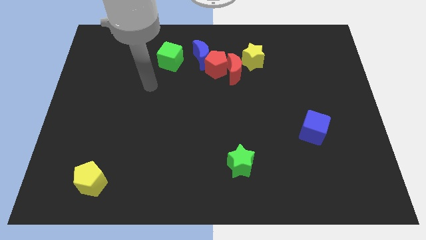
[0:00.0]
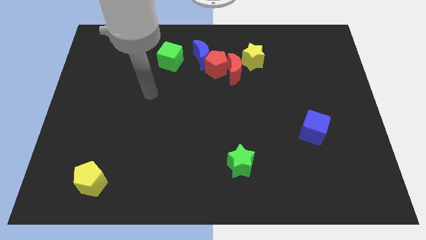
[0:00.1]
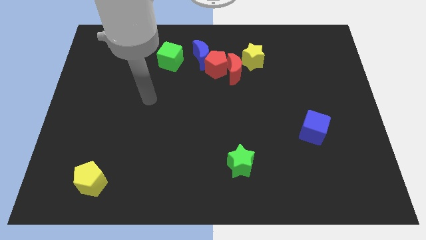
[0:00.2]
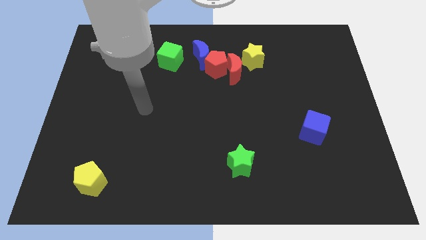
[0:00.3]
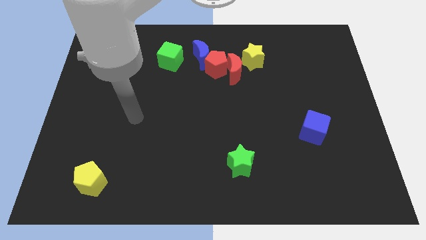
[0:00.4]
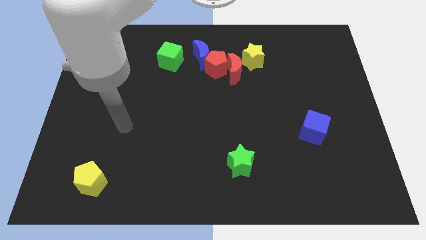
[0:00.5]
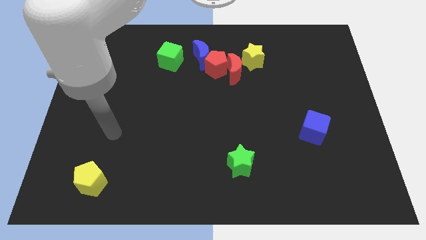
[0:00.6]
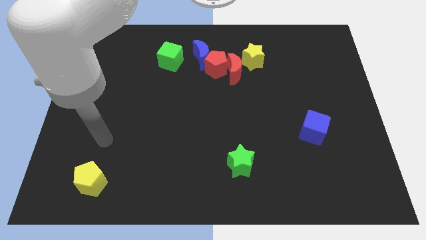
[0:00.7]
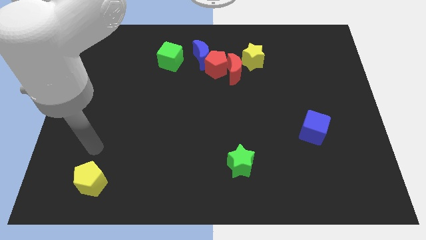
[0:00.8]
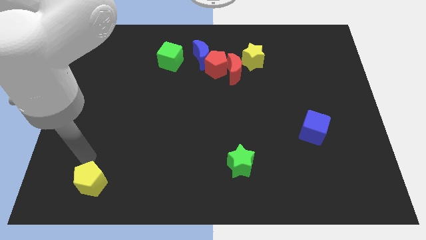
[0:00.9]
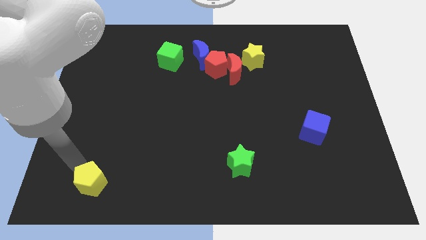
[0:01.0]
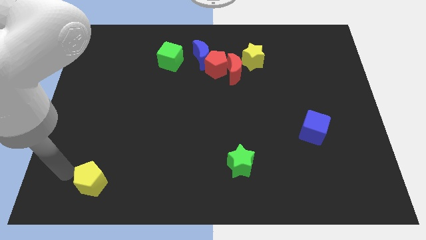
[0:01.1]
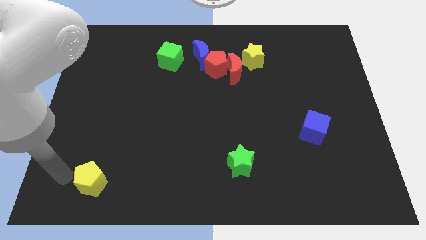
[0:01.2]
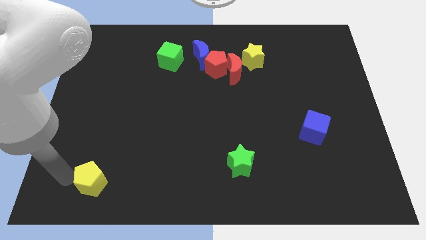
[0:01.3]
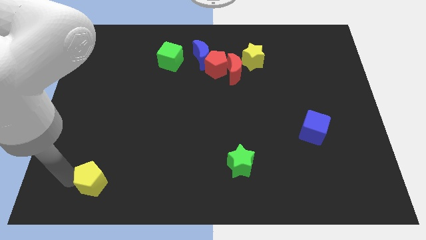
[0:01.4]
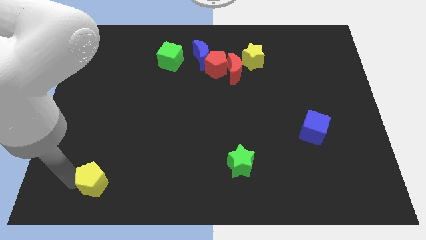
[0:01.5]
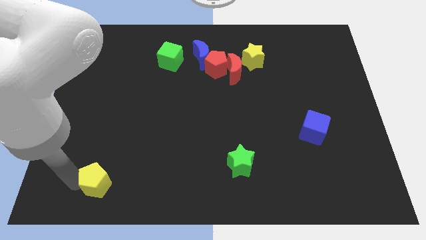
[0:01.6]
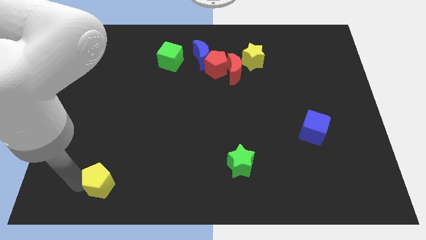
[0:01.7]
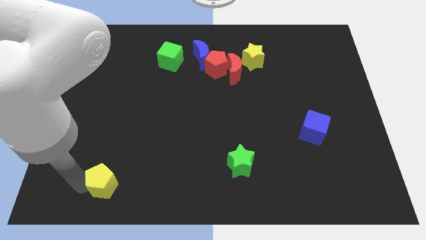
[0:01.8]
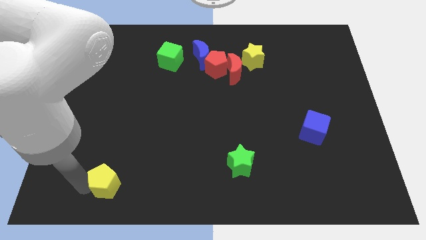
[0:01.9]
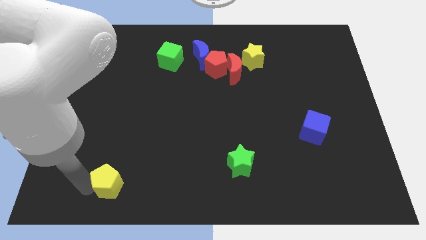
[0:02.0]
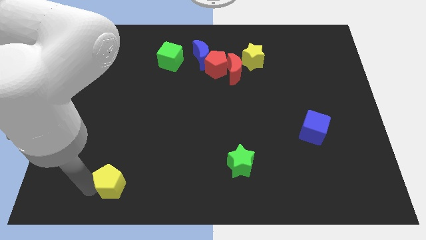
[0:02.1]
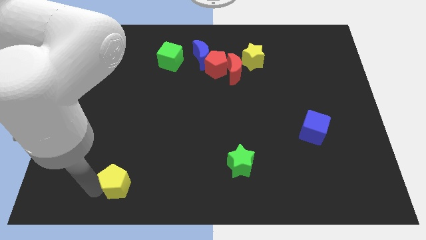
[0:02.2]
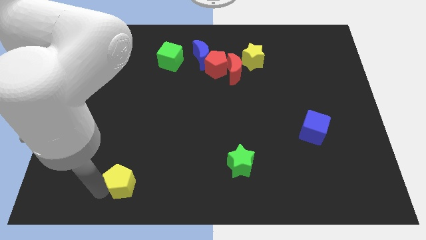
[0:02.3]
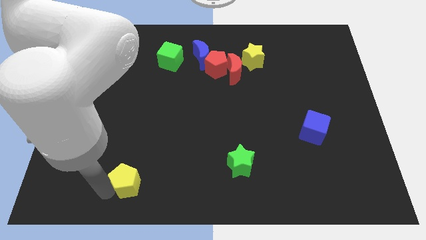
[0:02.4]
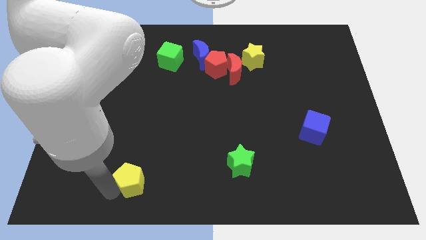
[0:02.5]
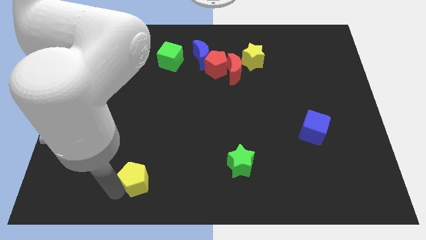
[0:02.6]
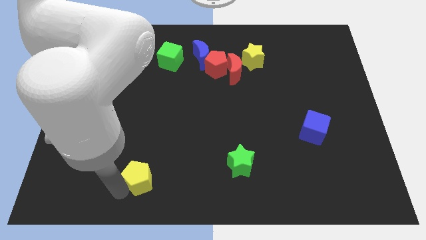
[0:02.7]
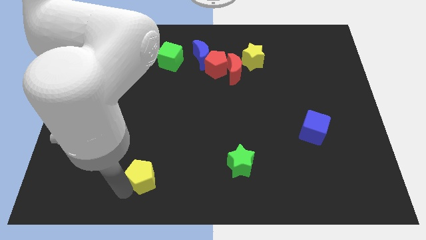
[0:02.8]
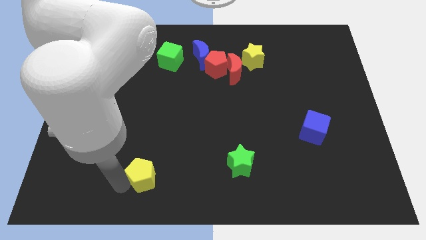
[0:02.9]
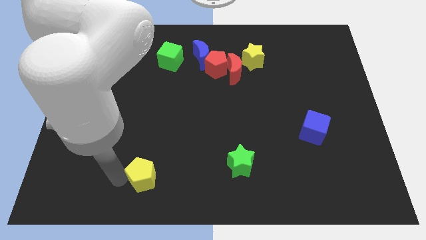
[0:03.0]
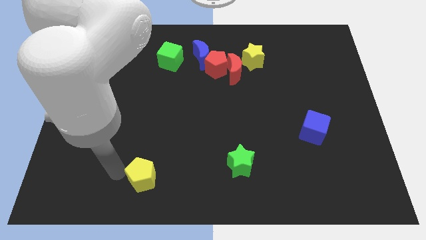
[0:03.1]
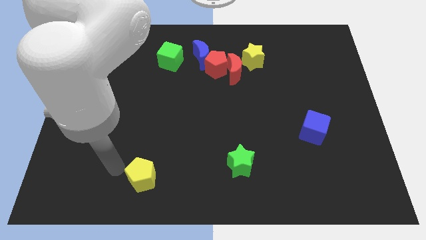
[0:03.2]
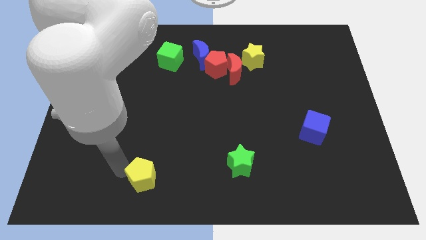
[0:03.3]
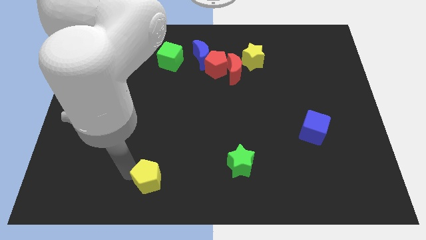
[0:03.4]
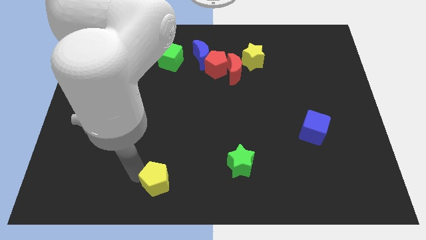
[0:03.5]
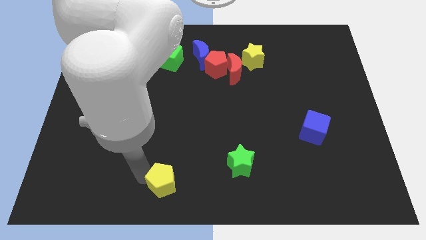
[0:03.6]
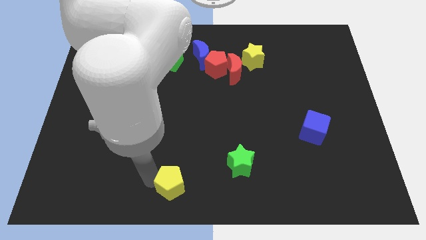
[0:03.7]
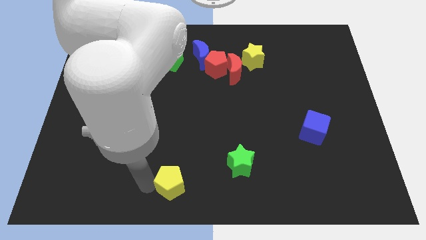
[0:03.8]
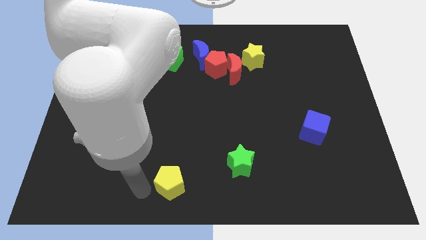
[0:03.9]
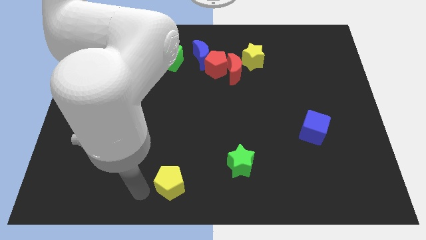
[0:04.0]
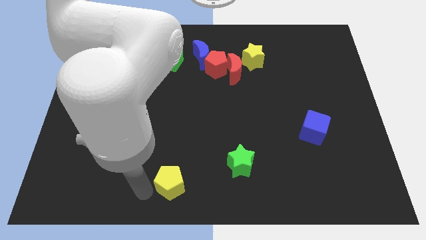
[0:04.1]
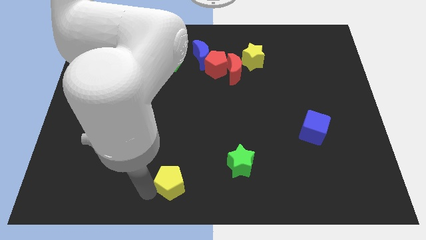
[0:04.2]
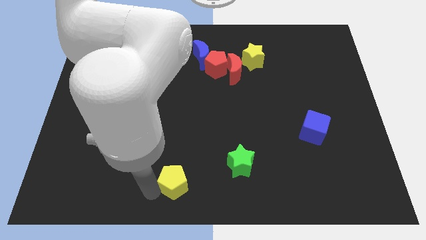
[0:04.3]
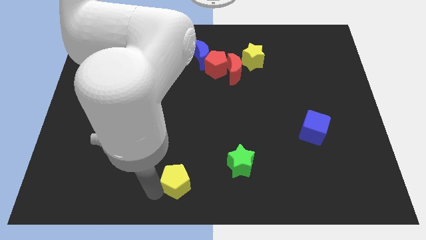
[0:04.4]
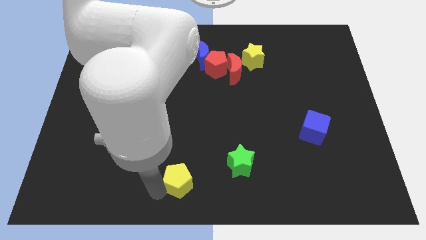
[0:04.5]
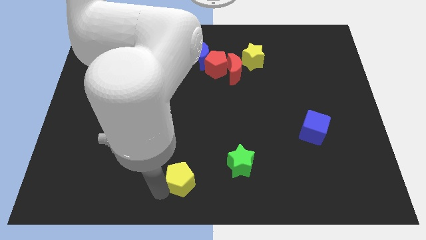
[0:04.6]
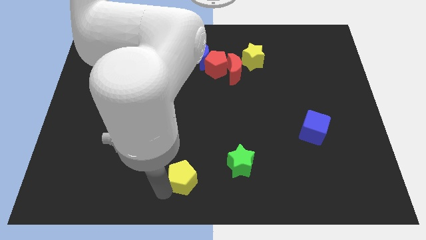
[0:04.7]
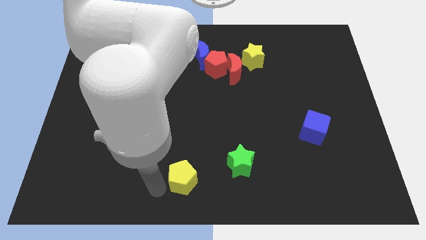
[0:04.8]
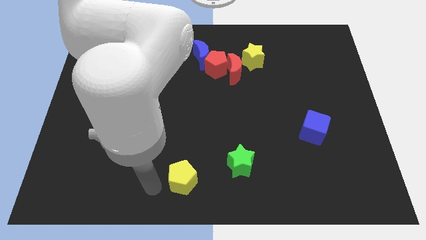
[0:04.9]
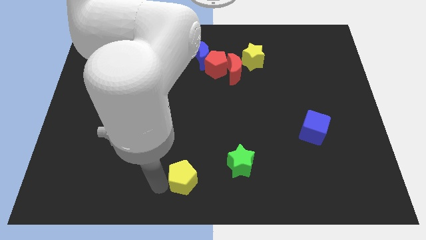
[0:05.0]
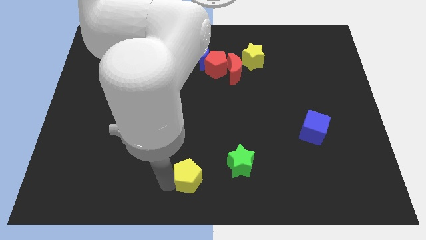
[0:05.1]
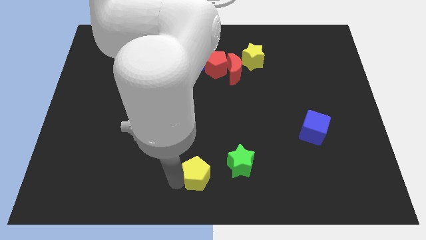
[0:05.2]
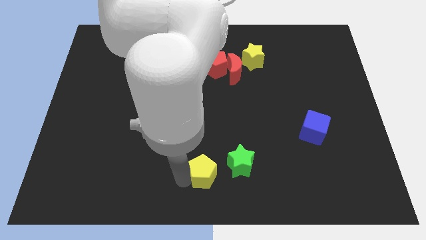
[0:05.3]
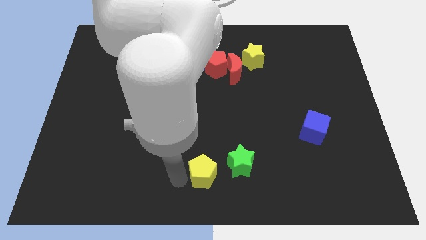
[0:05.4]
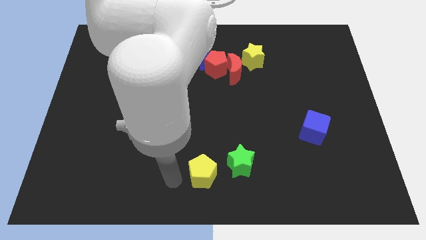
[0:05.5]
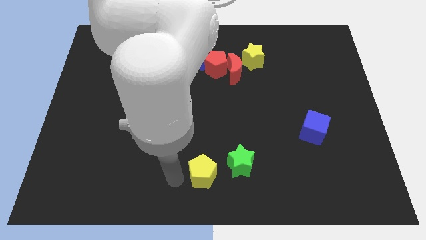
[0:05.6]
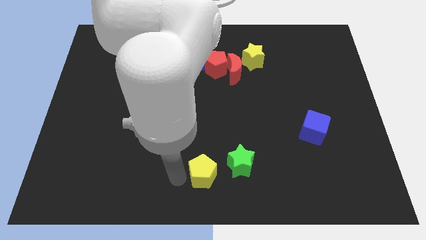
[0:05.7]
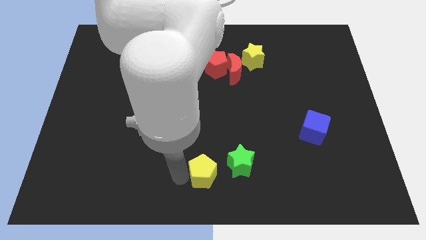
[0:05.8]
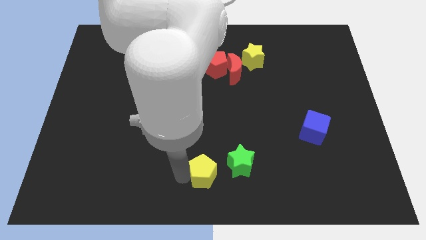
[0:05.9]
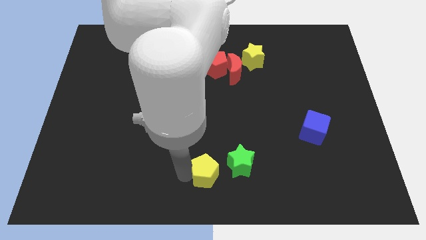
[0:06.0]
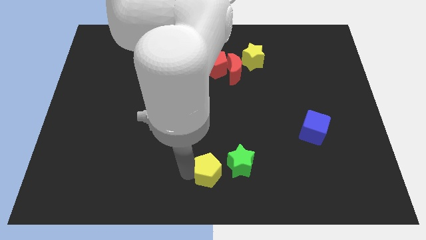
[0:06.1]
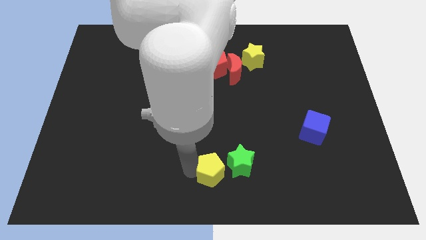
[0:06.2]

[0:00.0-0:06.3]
slide the yellow pentagon to the green star

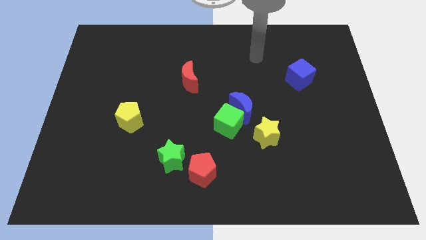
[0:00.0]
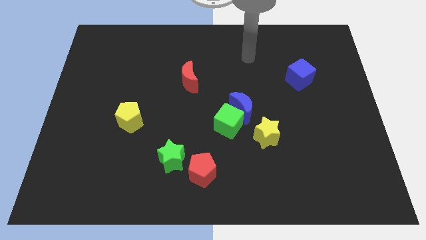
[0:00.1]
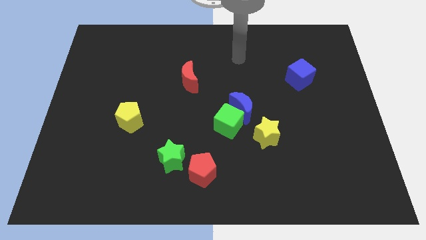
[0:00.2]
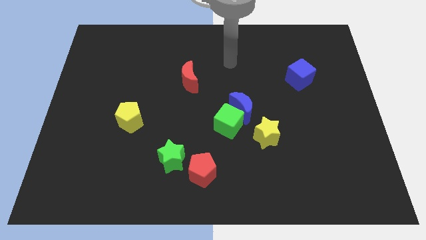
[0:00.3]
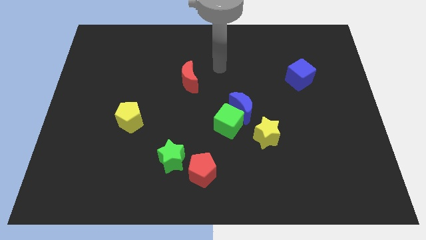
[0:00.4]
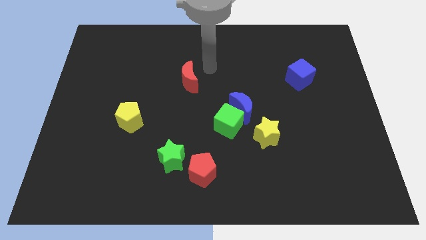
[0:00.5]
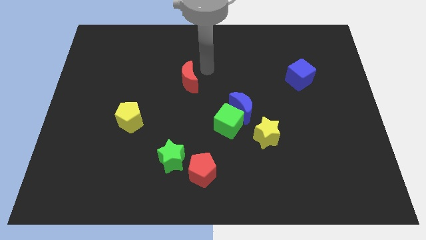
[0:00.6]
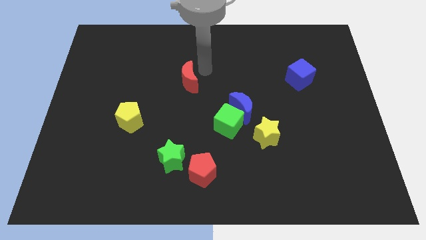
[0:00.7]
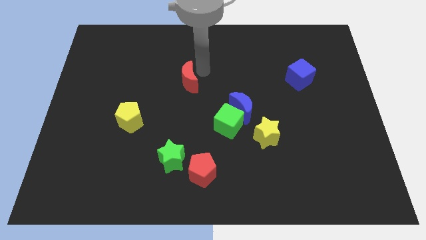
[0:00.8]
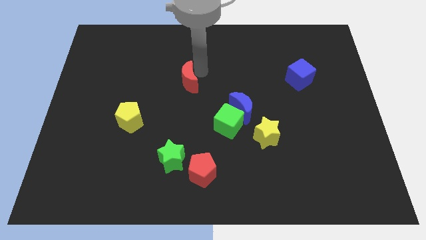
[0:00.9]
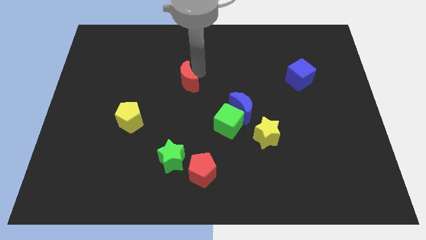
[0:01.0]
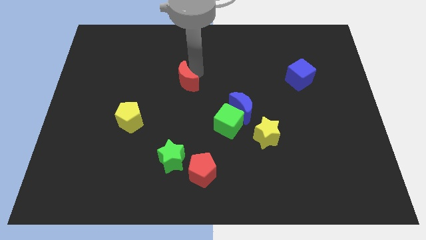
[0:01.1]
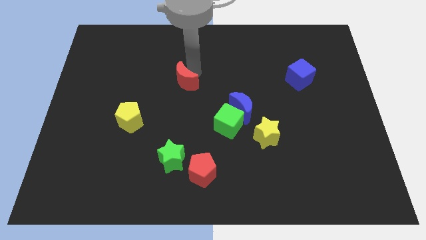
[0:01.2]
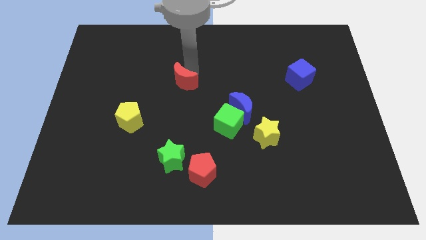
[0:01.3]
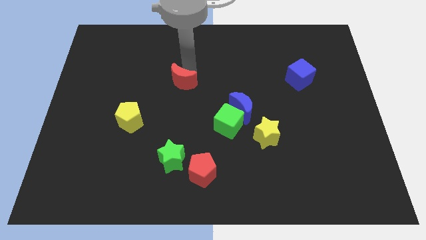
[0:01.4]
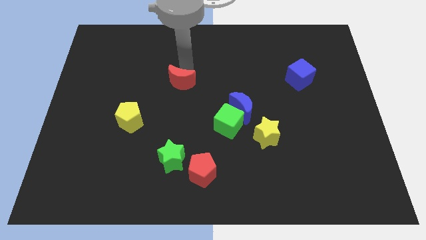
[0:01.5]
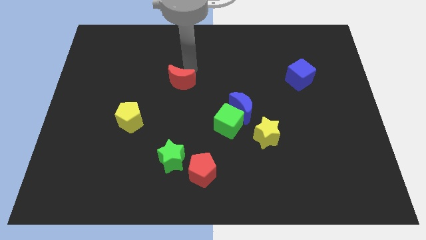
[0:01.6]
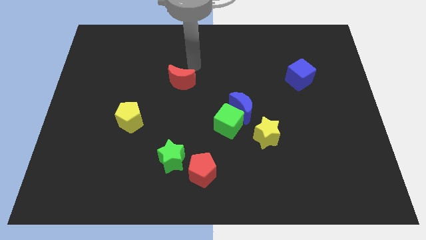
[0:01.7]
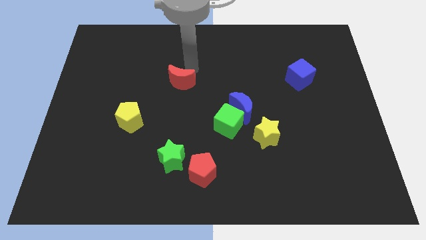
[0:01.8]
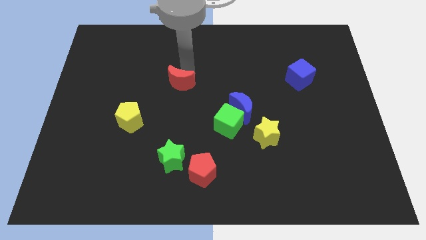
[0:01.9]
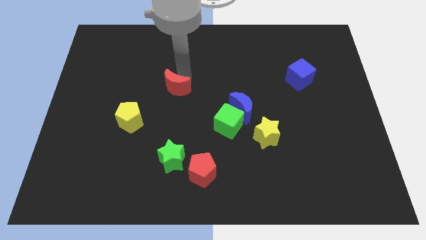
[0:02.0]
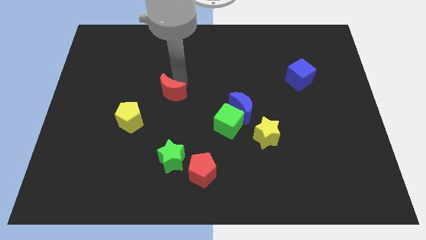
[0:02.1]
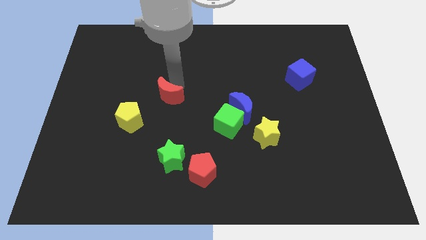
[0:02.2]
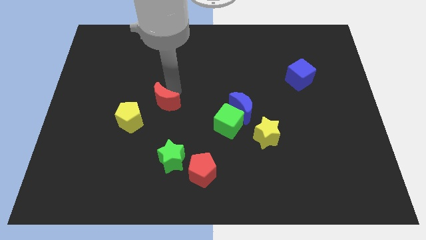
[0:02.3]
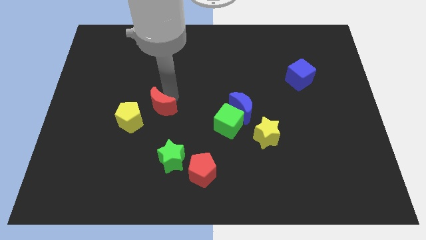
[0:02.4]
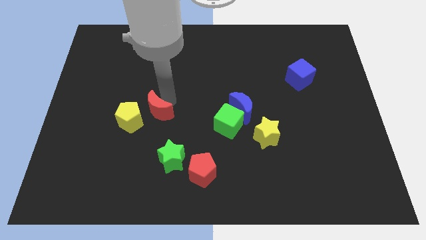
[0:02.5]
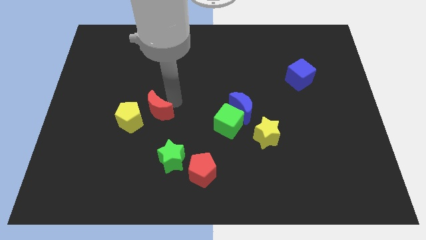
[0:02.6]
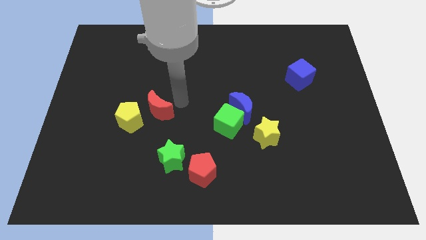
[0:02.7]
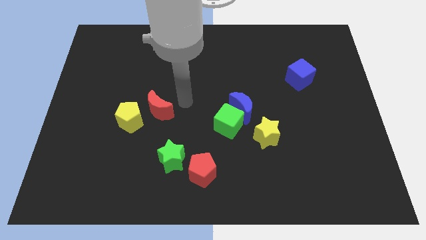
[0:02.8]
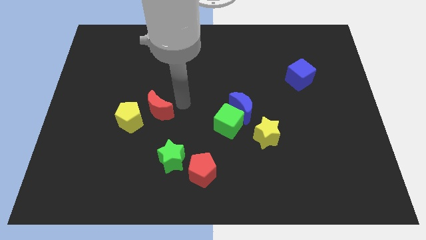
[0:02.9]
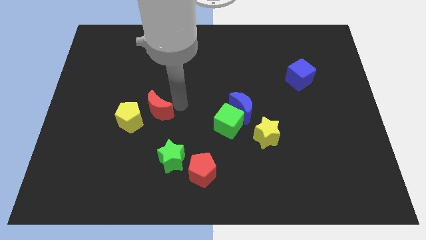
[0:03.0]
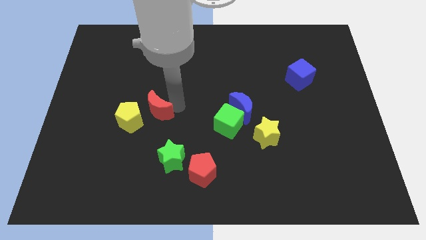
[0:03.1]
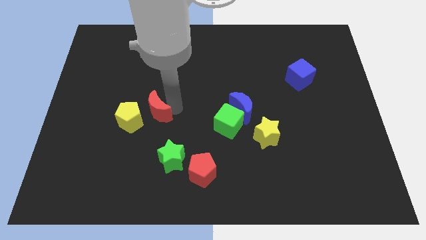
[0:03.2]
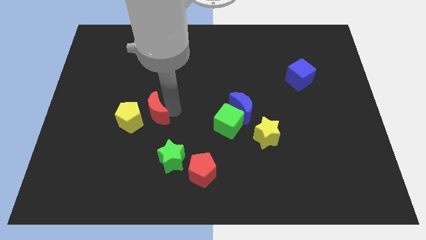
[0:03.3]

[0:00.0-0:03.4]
put the red moon towards the yellow pentagon
